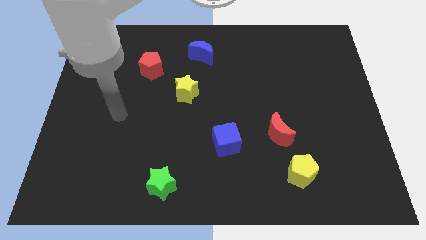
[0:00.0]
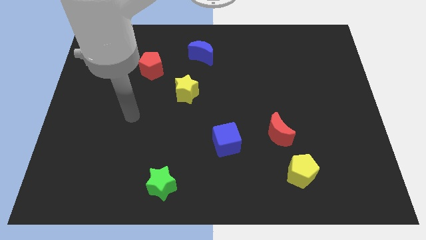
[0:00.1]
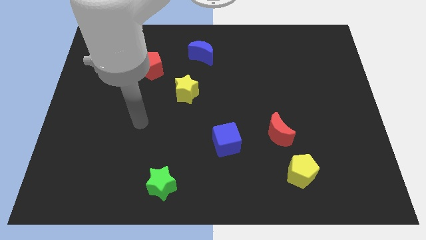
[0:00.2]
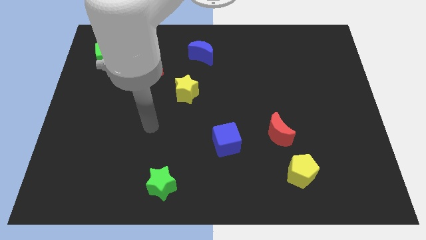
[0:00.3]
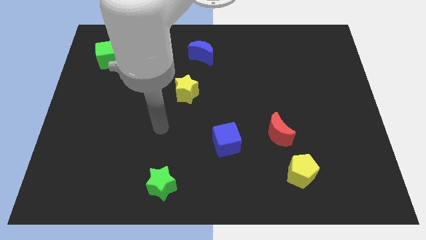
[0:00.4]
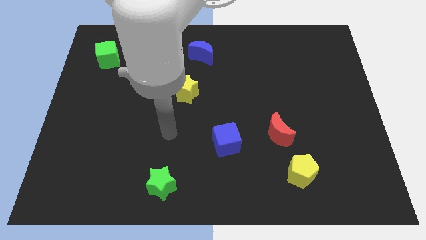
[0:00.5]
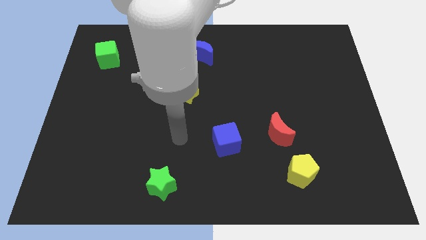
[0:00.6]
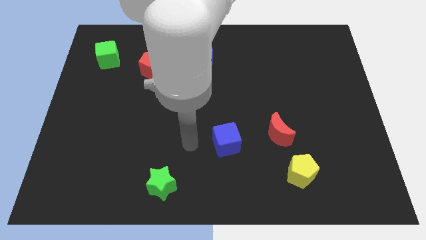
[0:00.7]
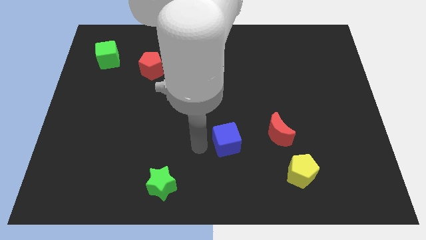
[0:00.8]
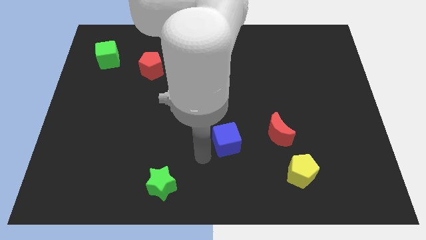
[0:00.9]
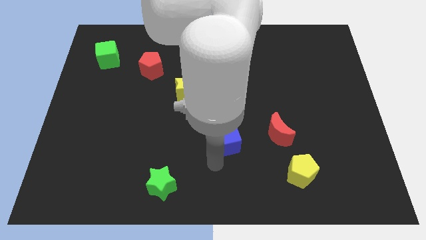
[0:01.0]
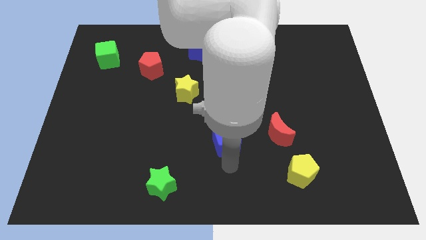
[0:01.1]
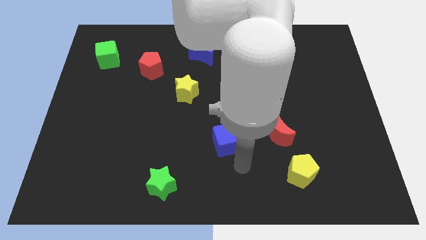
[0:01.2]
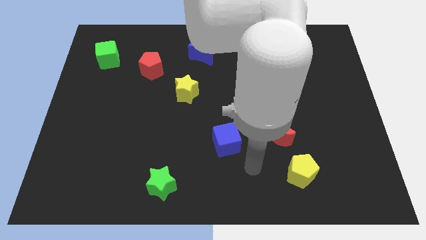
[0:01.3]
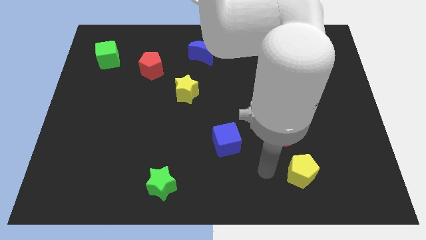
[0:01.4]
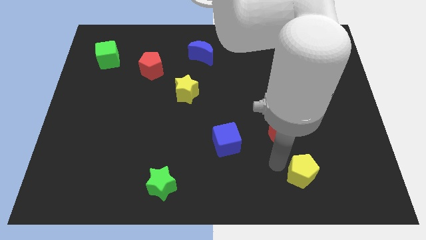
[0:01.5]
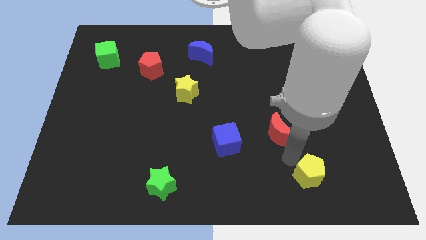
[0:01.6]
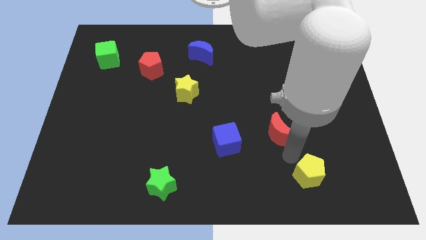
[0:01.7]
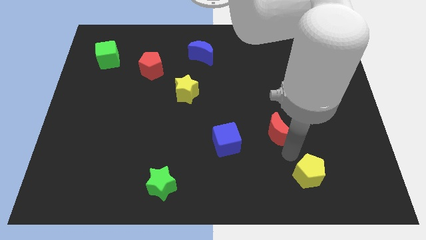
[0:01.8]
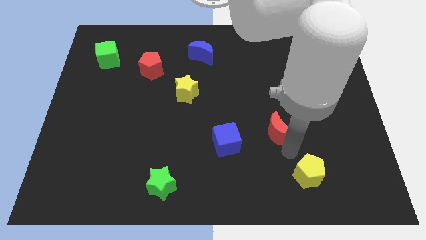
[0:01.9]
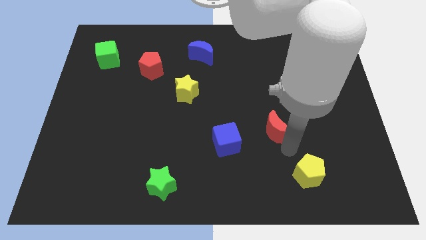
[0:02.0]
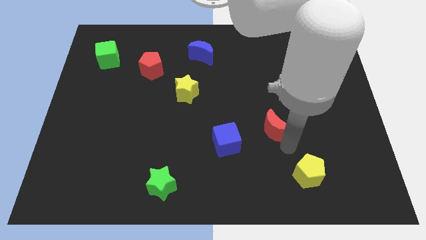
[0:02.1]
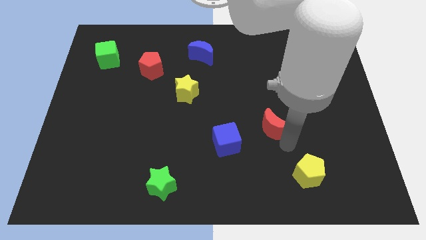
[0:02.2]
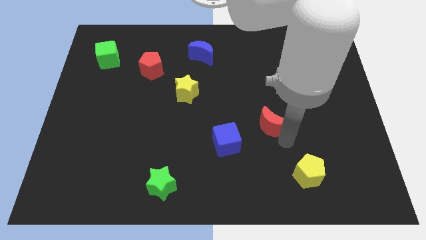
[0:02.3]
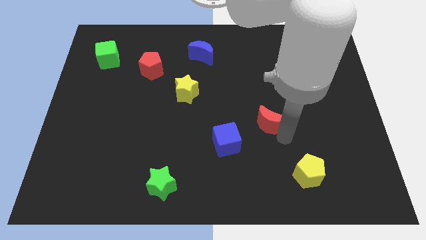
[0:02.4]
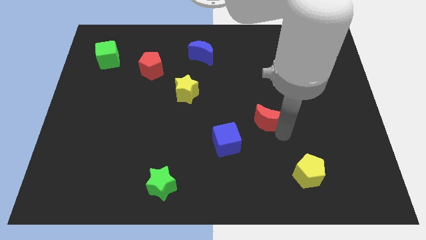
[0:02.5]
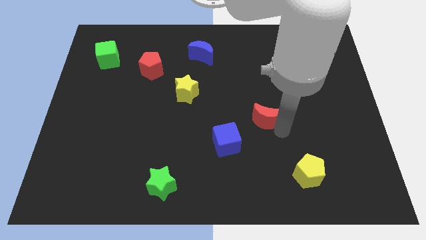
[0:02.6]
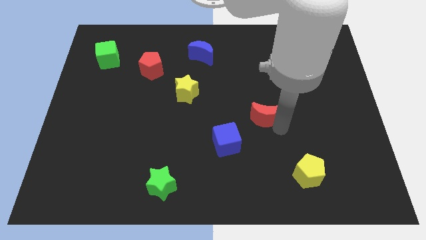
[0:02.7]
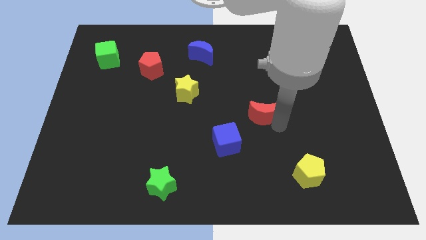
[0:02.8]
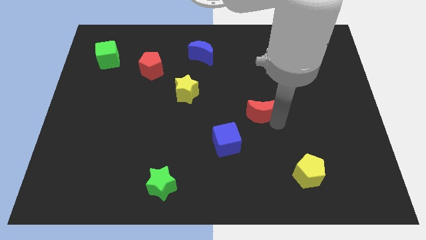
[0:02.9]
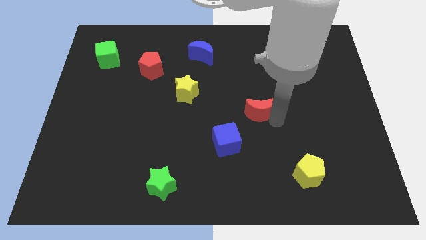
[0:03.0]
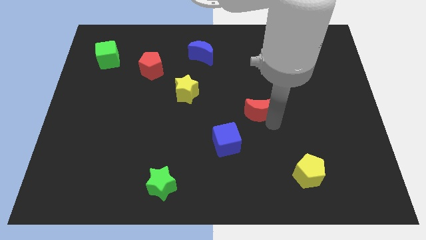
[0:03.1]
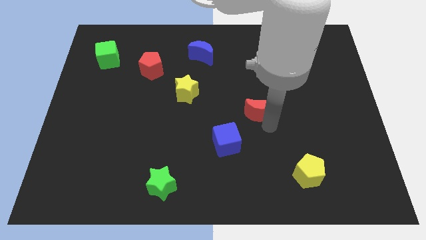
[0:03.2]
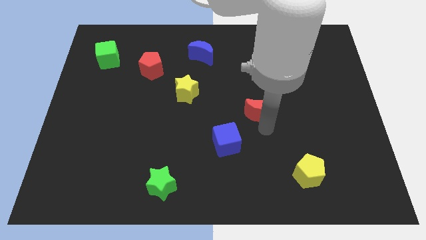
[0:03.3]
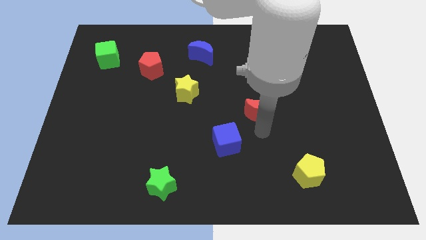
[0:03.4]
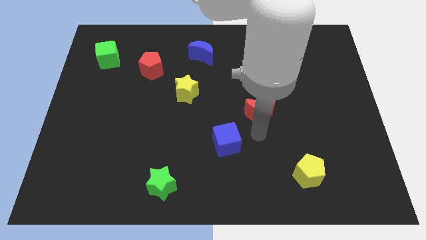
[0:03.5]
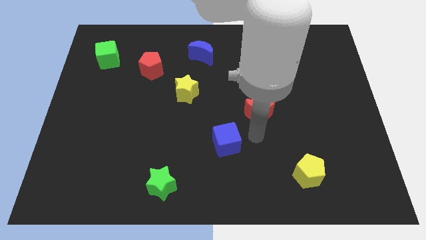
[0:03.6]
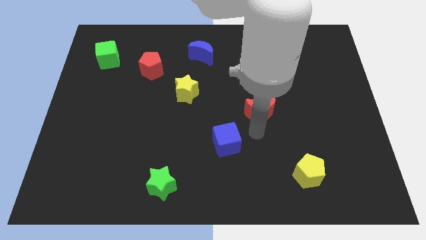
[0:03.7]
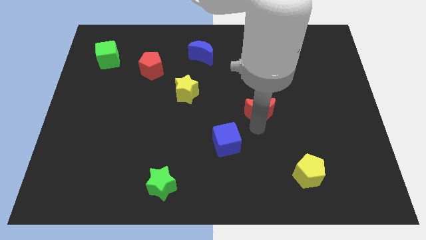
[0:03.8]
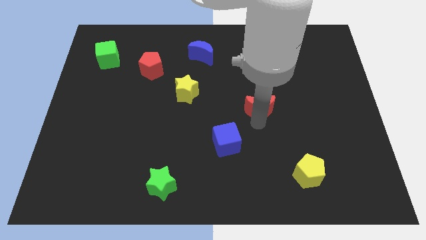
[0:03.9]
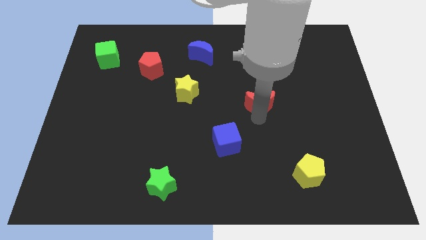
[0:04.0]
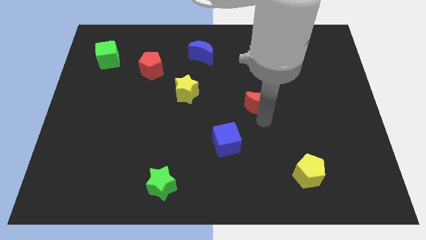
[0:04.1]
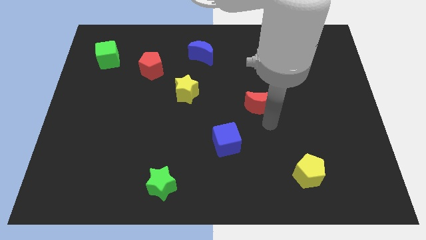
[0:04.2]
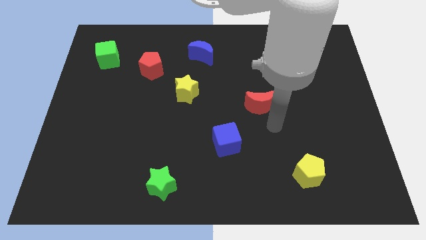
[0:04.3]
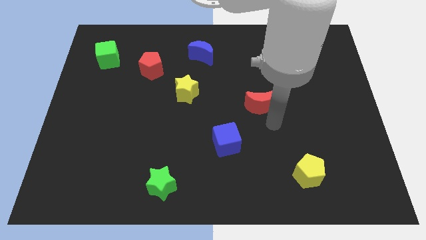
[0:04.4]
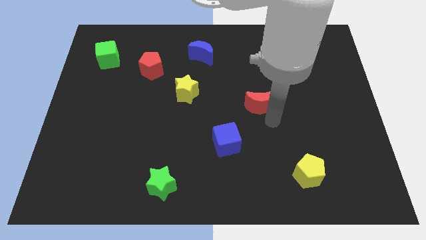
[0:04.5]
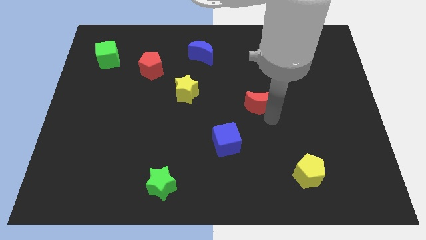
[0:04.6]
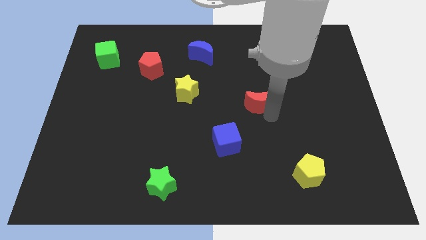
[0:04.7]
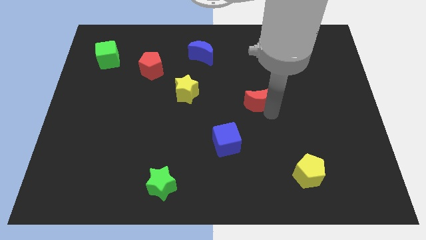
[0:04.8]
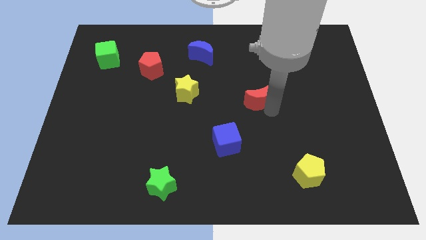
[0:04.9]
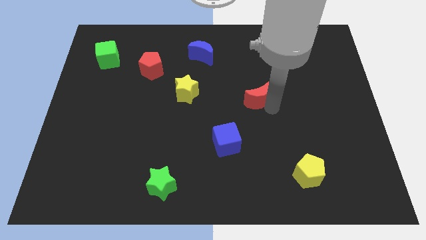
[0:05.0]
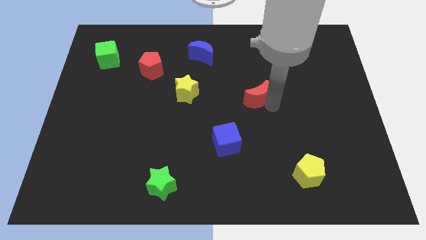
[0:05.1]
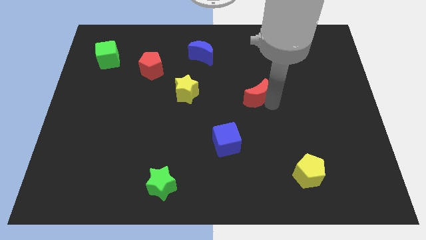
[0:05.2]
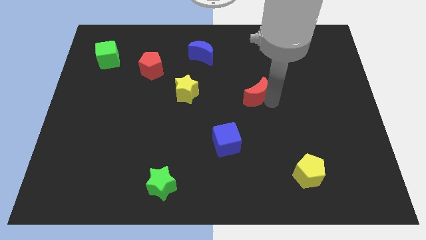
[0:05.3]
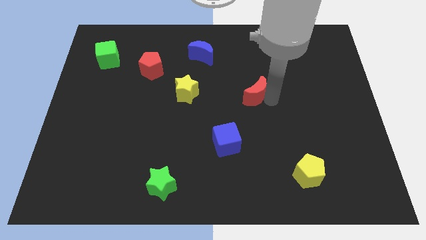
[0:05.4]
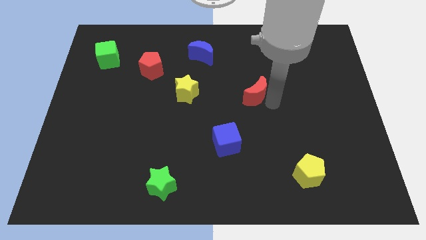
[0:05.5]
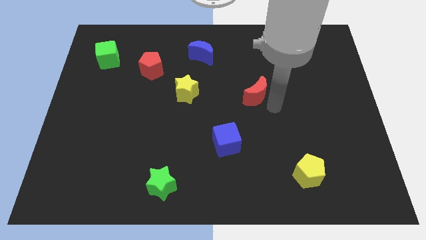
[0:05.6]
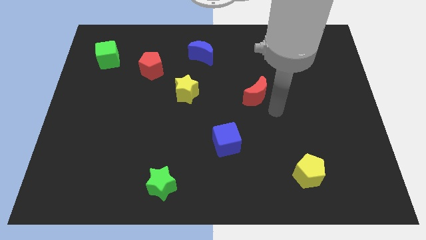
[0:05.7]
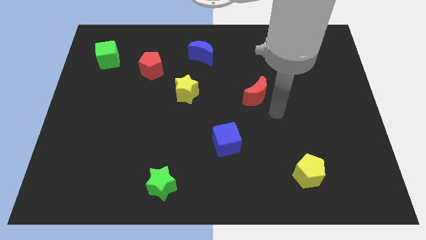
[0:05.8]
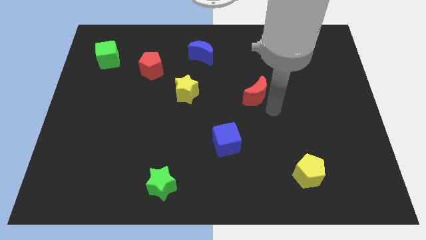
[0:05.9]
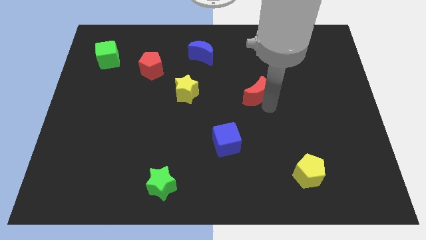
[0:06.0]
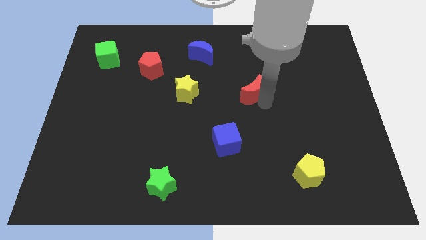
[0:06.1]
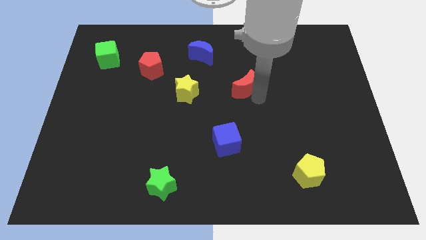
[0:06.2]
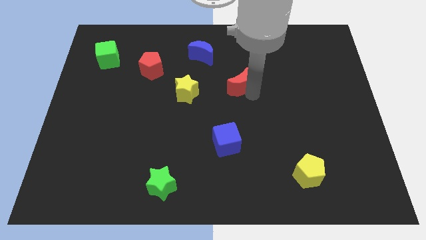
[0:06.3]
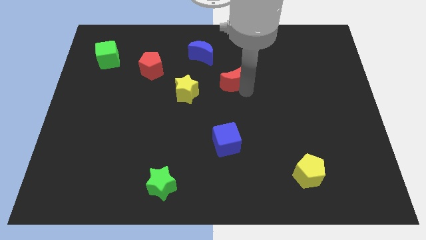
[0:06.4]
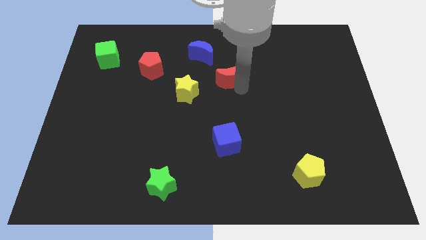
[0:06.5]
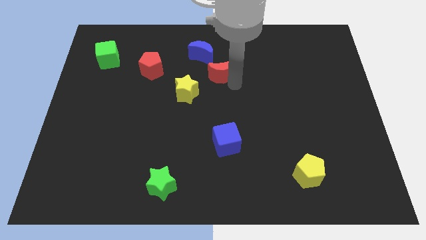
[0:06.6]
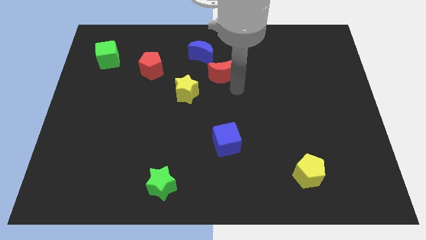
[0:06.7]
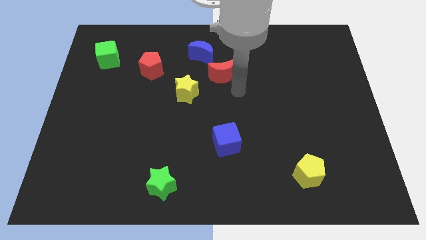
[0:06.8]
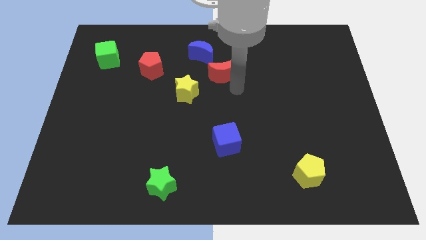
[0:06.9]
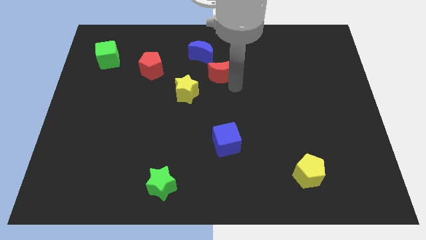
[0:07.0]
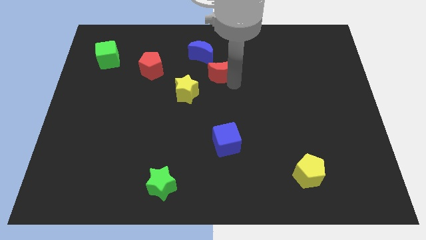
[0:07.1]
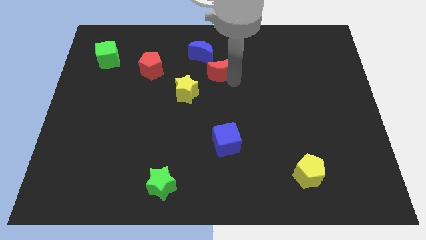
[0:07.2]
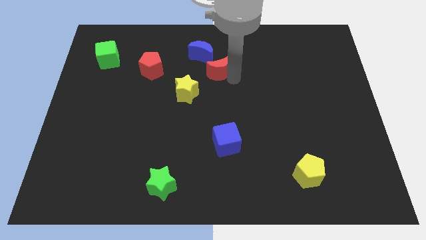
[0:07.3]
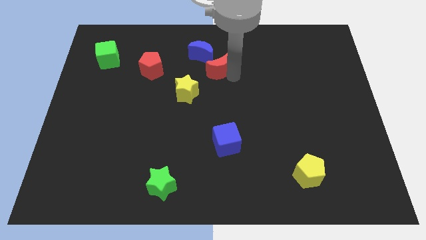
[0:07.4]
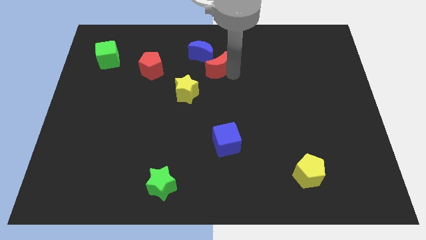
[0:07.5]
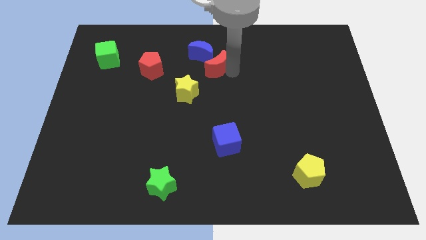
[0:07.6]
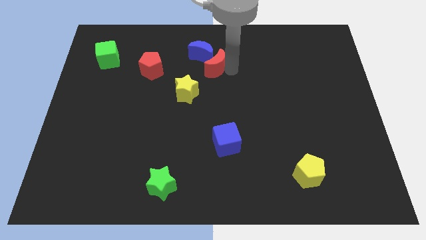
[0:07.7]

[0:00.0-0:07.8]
move the red moon towards the blue moon

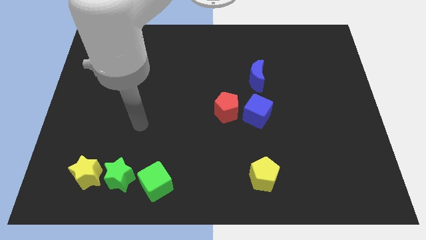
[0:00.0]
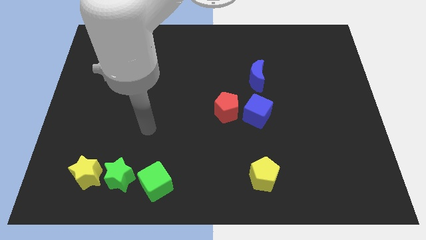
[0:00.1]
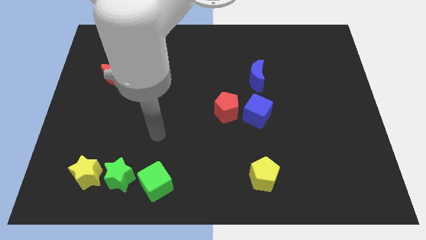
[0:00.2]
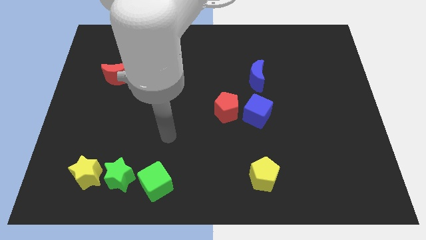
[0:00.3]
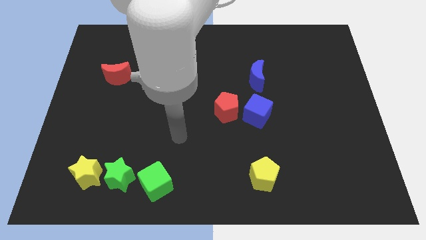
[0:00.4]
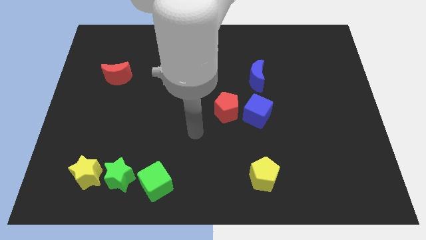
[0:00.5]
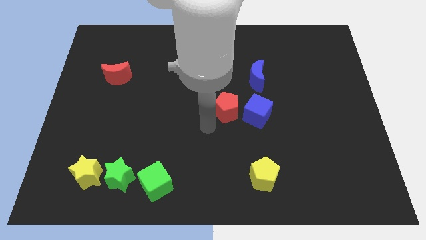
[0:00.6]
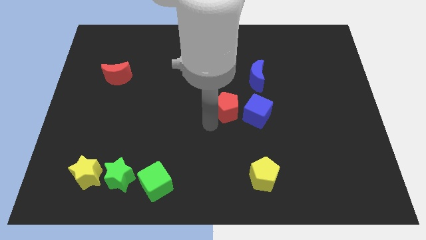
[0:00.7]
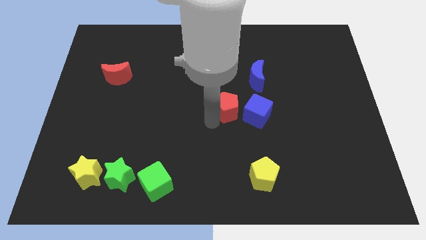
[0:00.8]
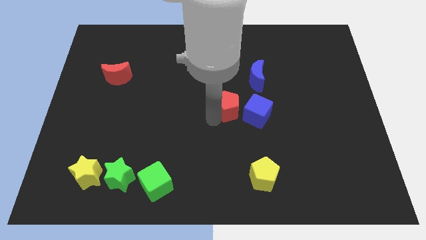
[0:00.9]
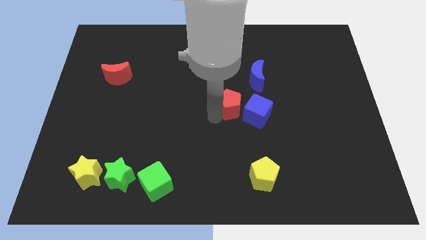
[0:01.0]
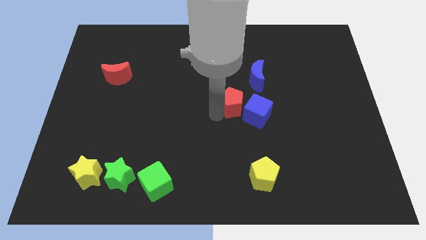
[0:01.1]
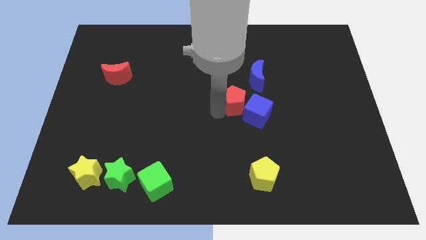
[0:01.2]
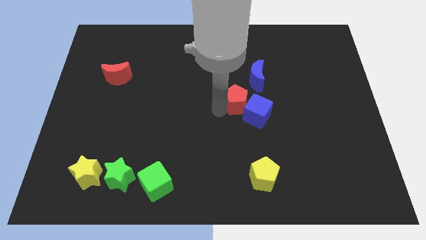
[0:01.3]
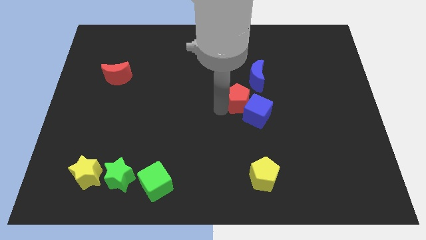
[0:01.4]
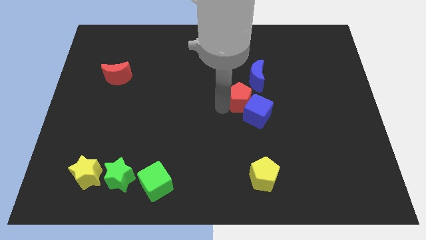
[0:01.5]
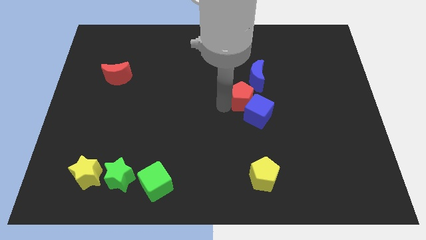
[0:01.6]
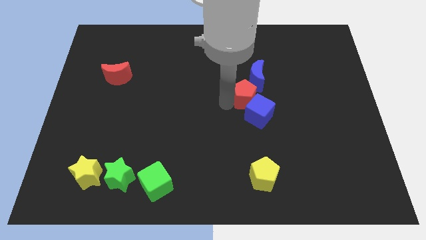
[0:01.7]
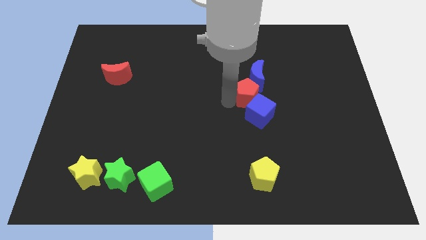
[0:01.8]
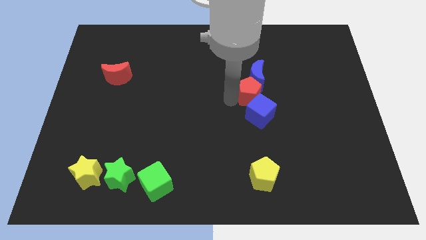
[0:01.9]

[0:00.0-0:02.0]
move the red pentagon to the blue moon
